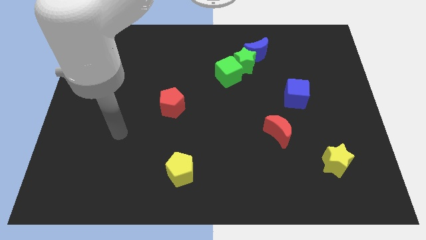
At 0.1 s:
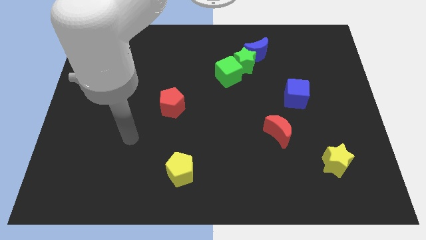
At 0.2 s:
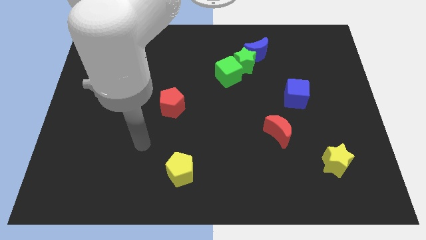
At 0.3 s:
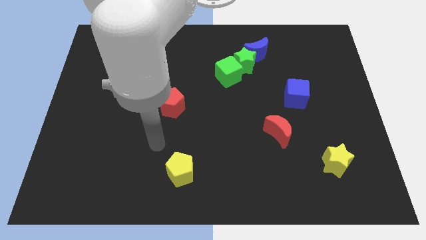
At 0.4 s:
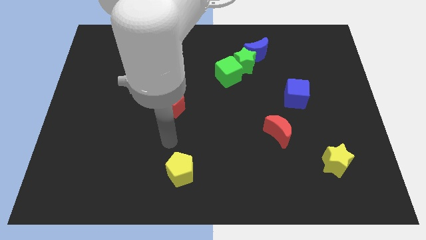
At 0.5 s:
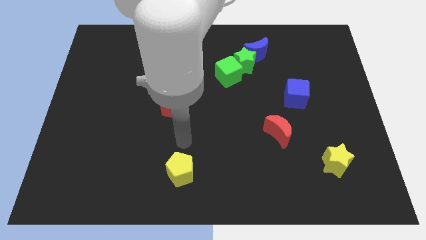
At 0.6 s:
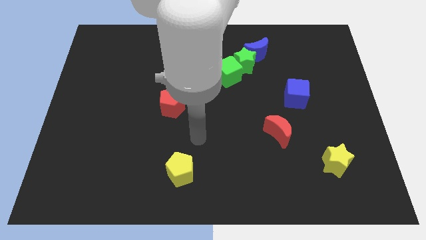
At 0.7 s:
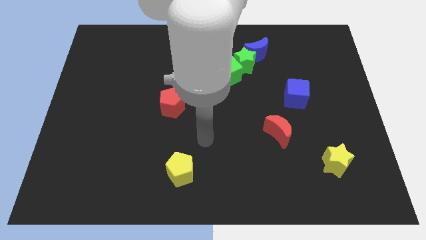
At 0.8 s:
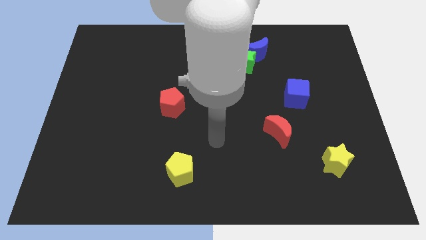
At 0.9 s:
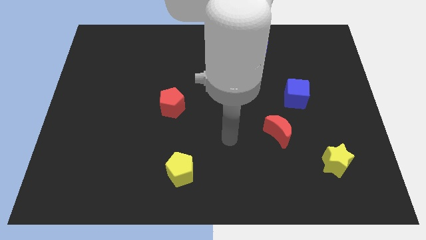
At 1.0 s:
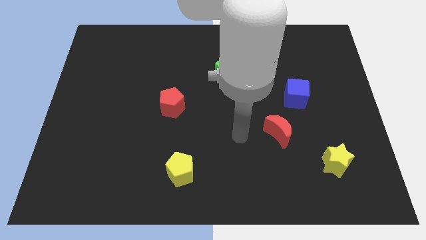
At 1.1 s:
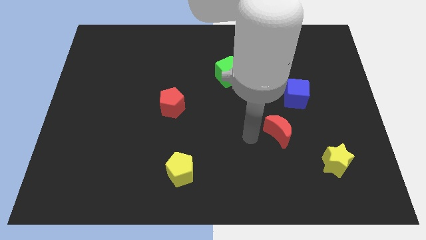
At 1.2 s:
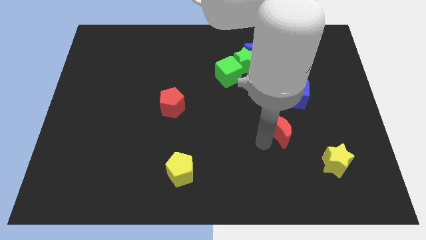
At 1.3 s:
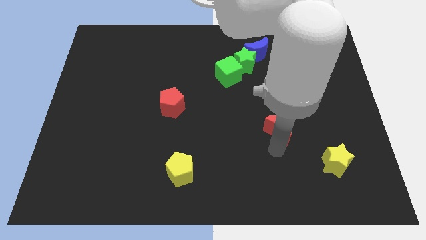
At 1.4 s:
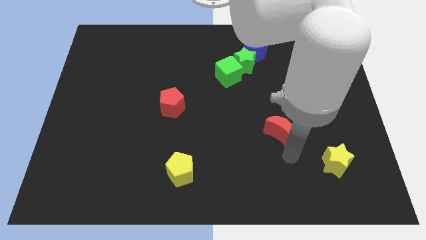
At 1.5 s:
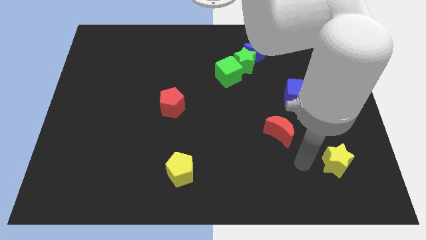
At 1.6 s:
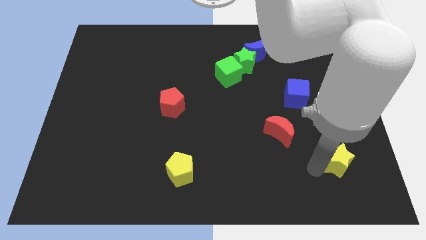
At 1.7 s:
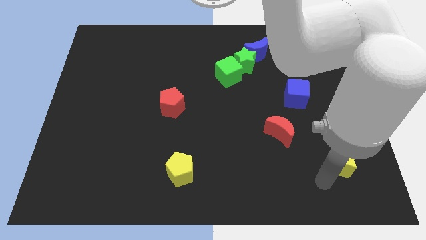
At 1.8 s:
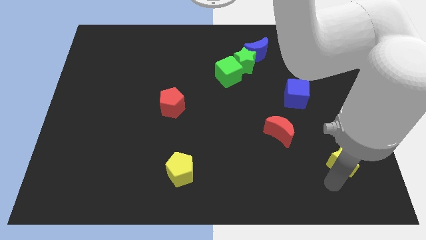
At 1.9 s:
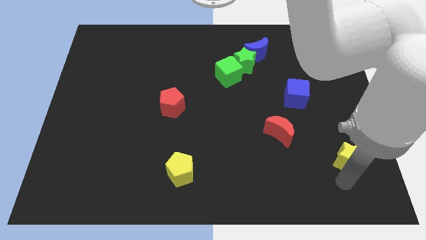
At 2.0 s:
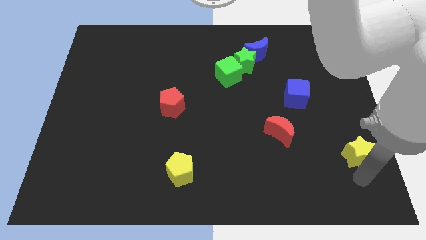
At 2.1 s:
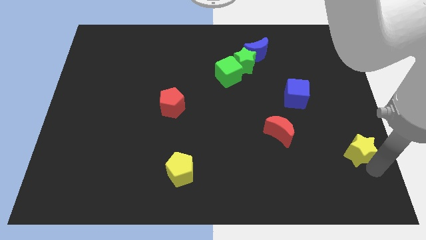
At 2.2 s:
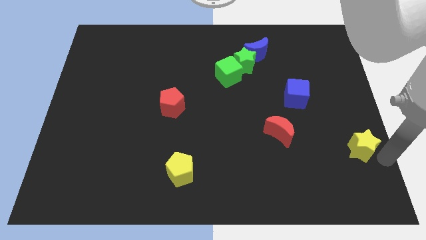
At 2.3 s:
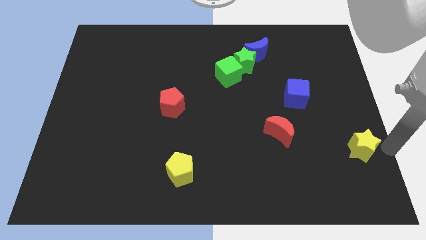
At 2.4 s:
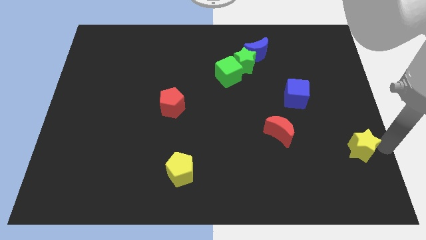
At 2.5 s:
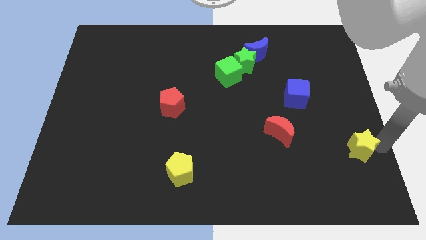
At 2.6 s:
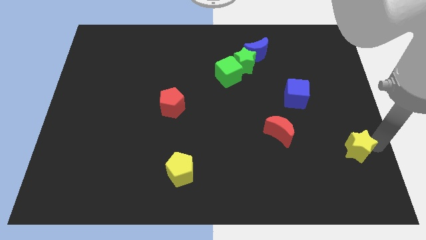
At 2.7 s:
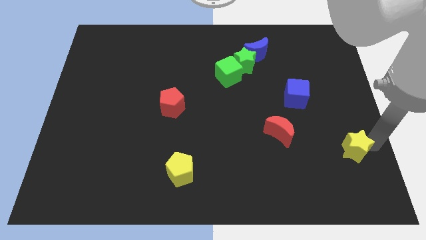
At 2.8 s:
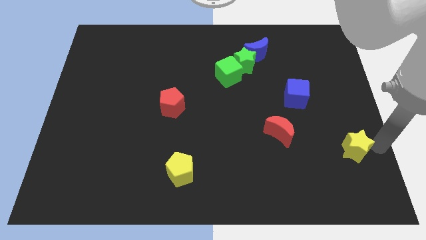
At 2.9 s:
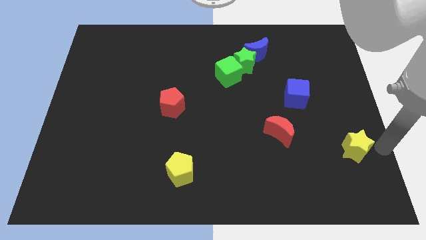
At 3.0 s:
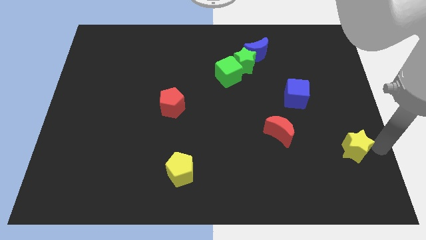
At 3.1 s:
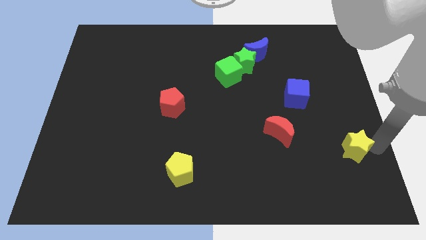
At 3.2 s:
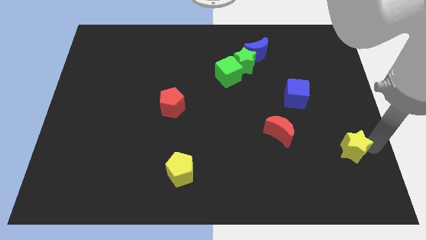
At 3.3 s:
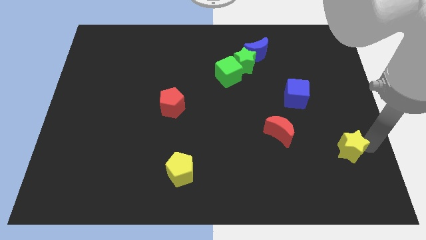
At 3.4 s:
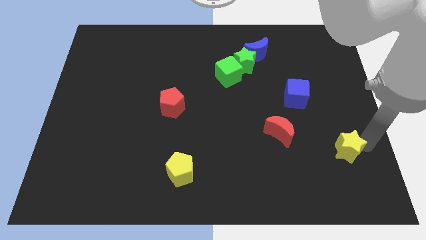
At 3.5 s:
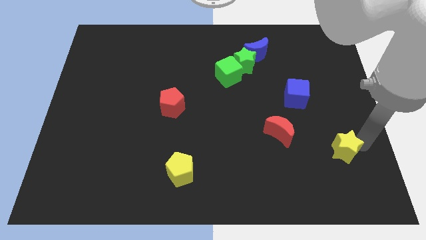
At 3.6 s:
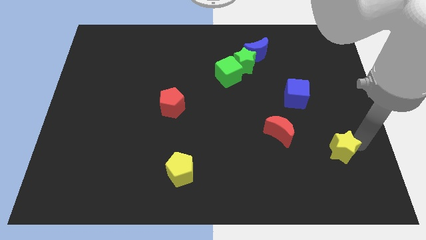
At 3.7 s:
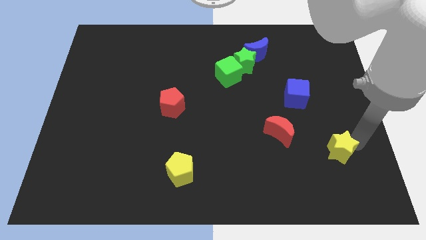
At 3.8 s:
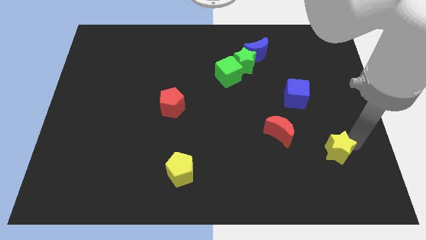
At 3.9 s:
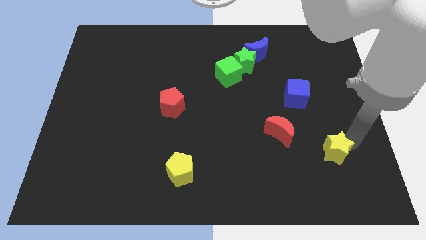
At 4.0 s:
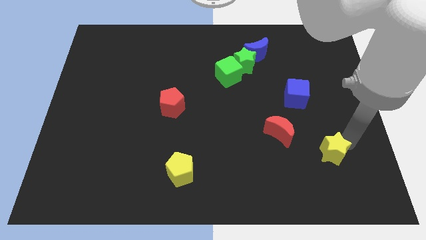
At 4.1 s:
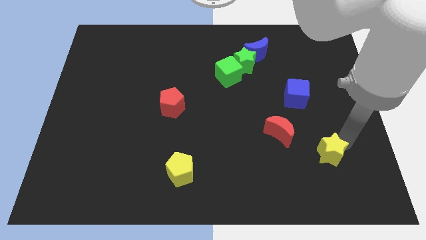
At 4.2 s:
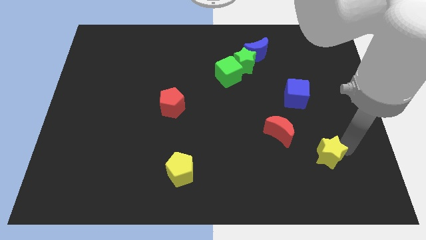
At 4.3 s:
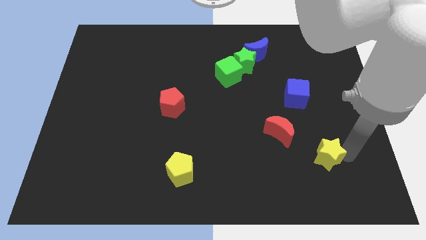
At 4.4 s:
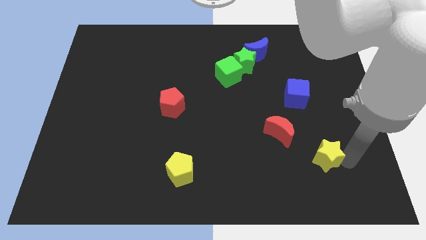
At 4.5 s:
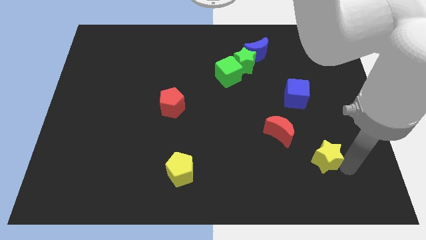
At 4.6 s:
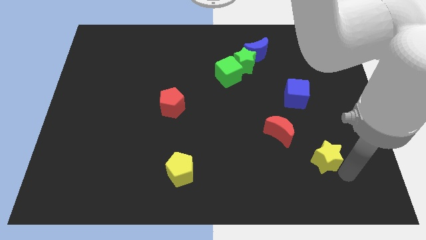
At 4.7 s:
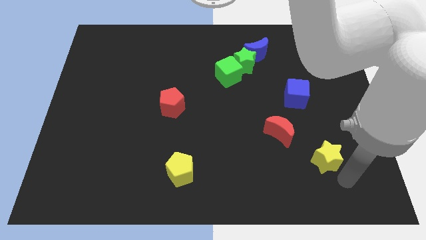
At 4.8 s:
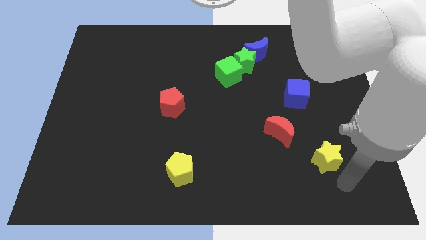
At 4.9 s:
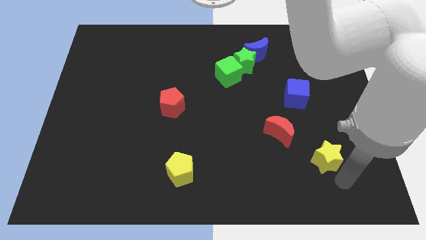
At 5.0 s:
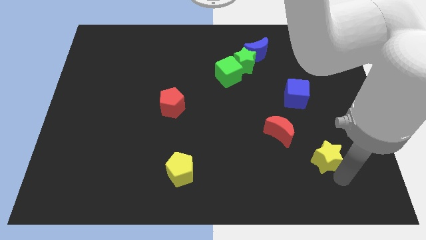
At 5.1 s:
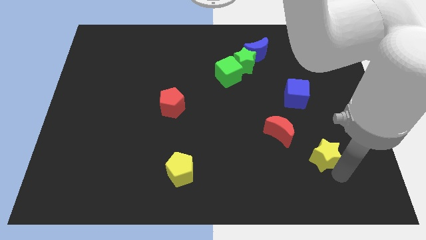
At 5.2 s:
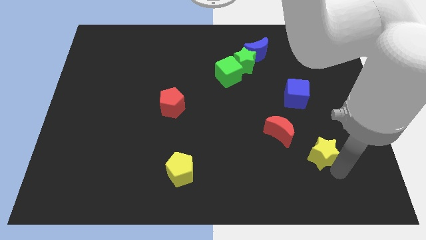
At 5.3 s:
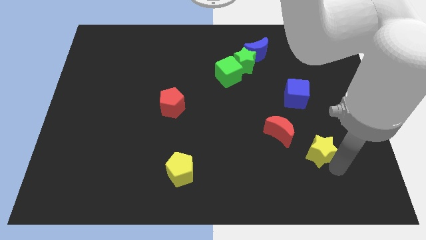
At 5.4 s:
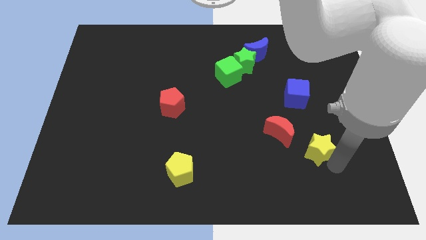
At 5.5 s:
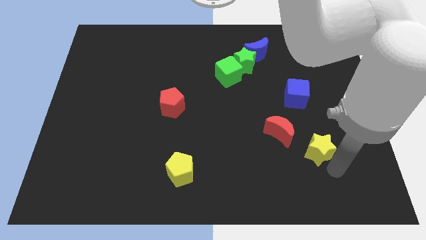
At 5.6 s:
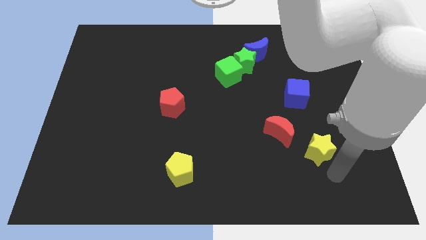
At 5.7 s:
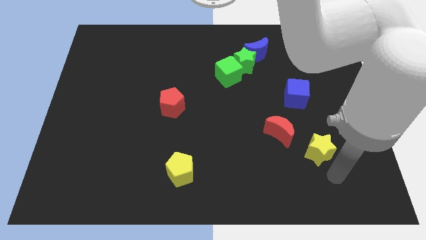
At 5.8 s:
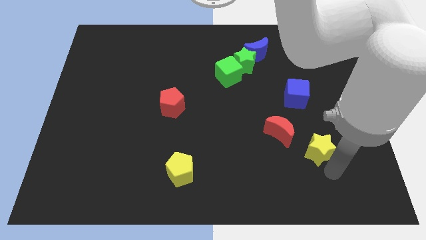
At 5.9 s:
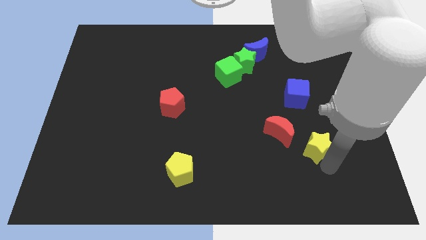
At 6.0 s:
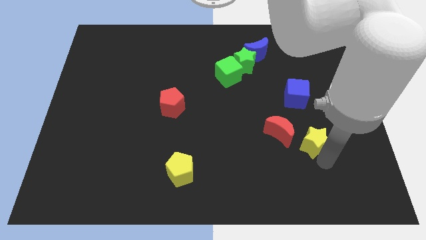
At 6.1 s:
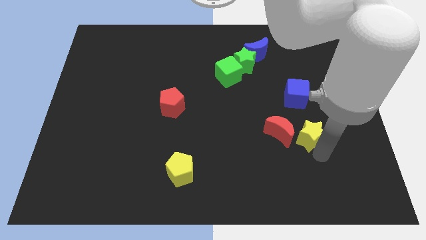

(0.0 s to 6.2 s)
push the yellow star somewhat up and left

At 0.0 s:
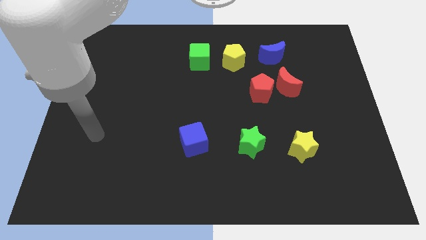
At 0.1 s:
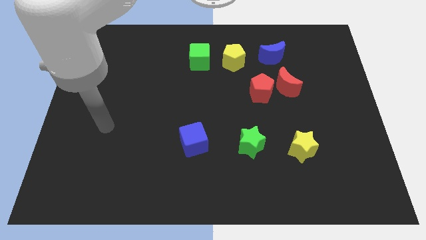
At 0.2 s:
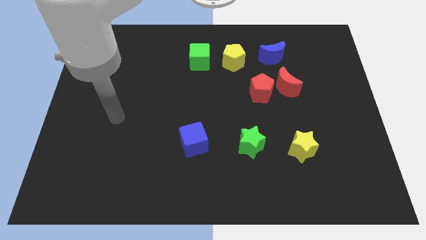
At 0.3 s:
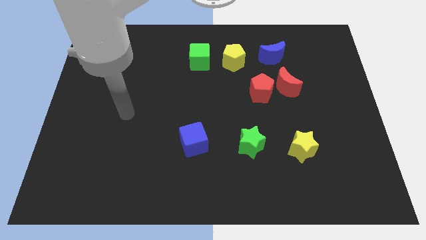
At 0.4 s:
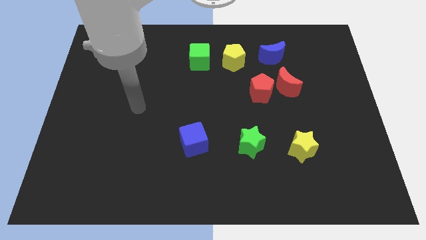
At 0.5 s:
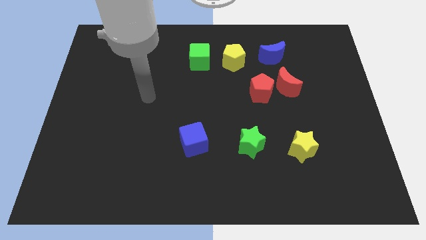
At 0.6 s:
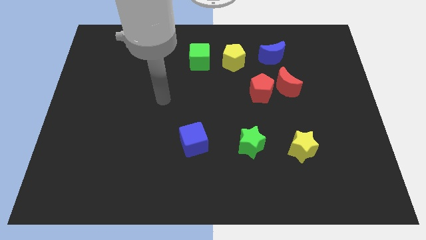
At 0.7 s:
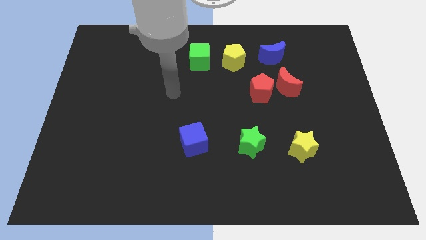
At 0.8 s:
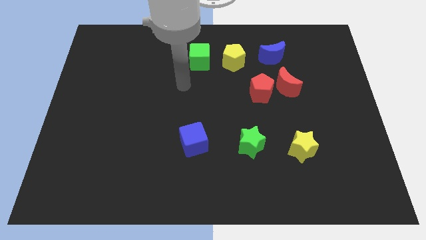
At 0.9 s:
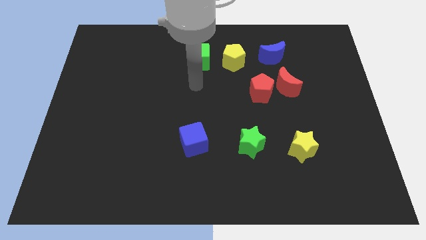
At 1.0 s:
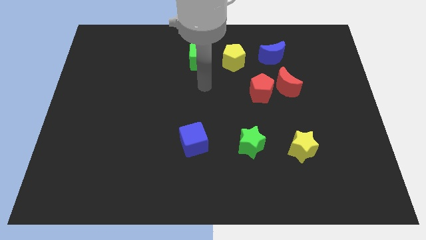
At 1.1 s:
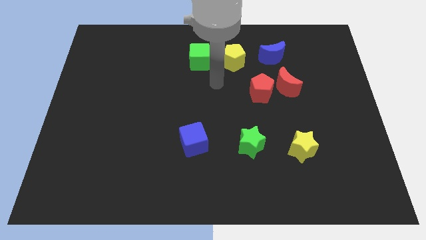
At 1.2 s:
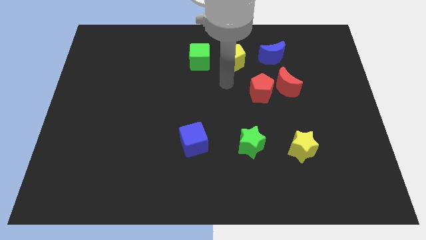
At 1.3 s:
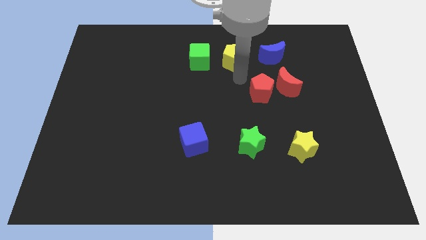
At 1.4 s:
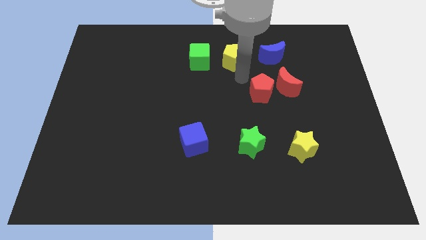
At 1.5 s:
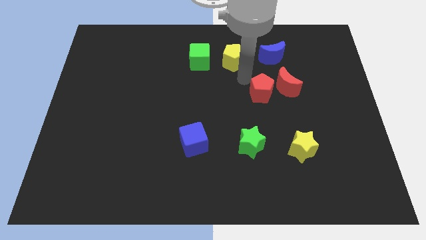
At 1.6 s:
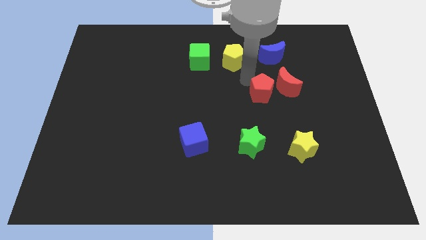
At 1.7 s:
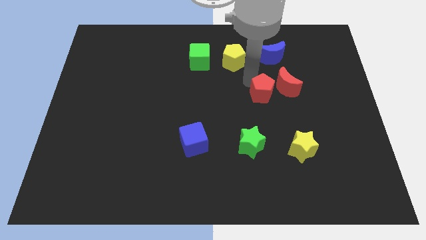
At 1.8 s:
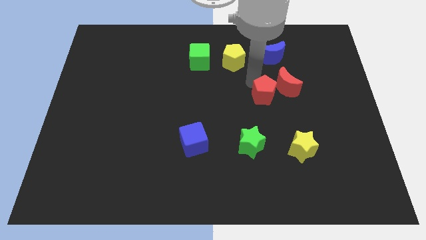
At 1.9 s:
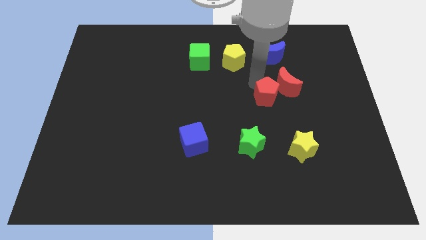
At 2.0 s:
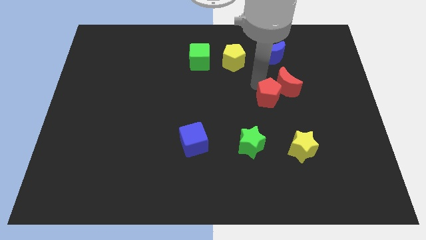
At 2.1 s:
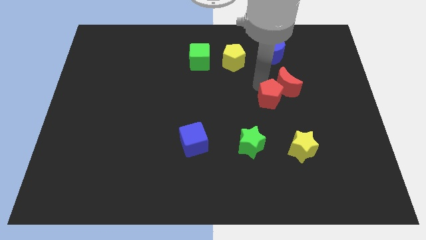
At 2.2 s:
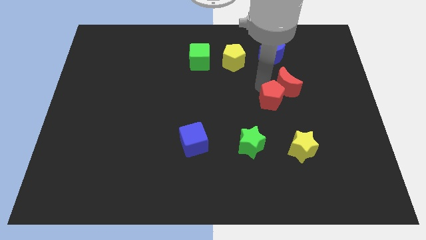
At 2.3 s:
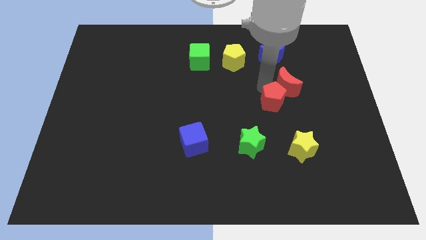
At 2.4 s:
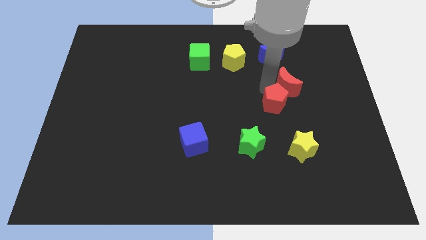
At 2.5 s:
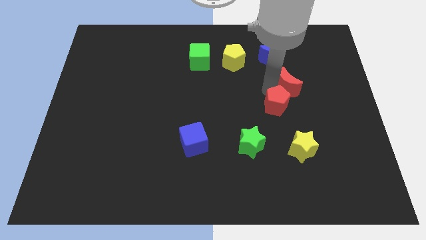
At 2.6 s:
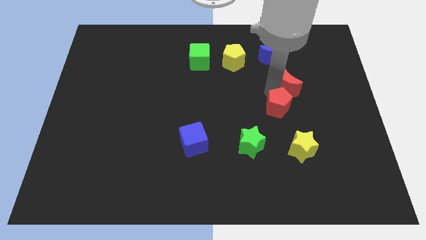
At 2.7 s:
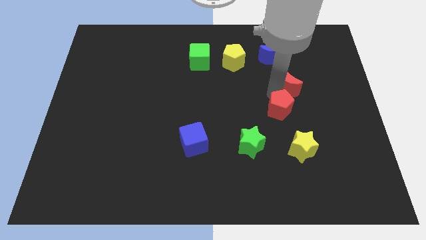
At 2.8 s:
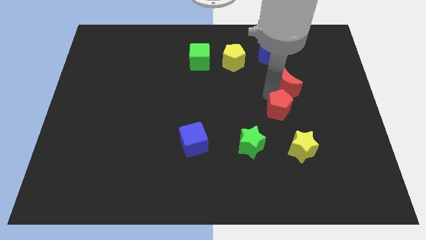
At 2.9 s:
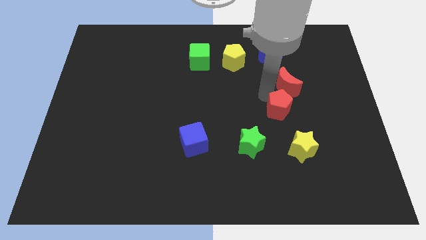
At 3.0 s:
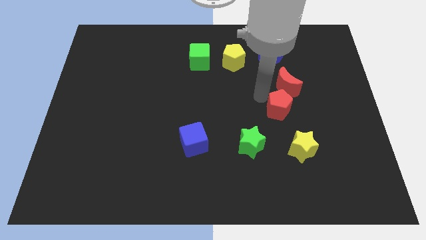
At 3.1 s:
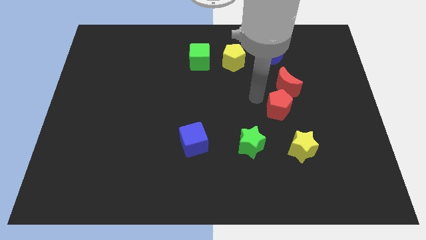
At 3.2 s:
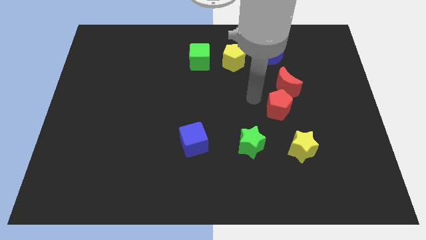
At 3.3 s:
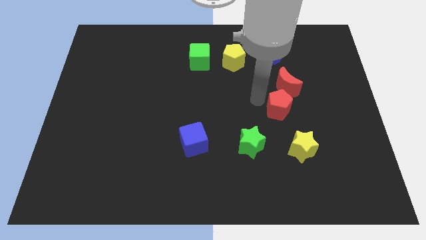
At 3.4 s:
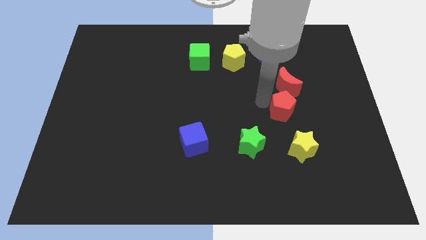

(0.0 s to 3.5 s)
slide the red pentagon down and right a bit
